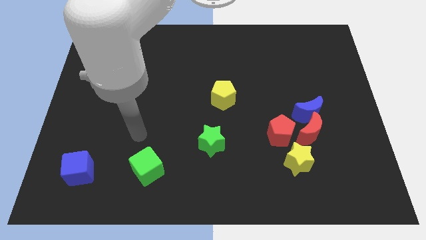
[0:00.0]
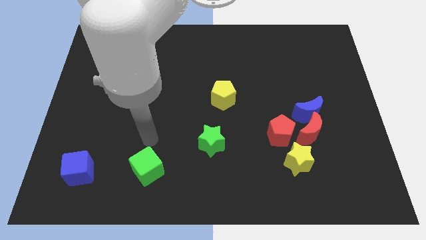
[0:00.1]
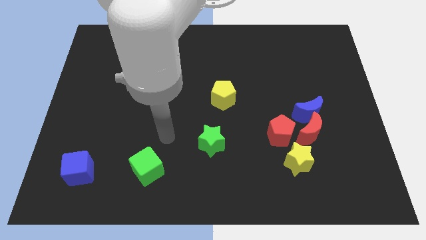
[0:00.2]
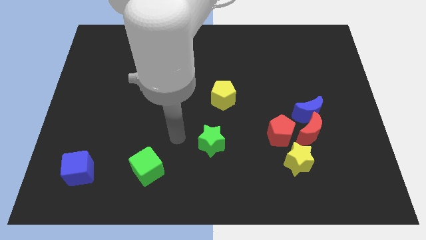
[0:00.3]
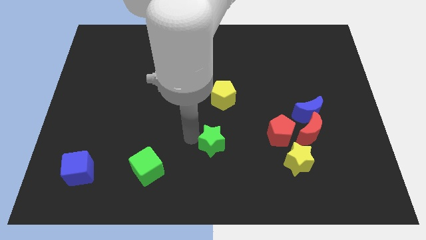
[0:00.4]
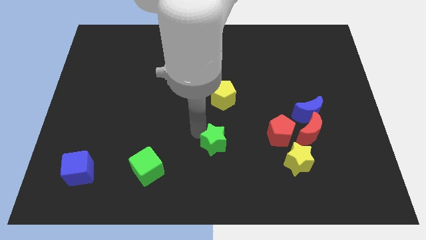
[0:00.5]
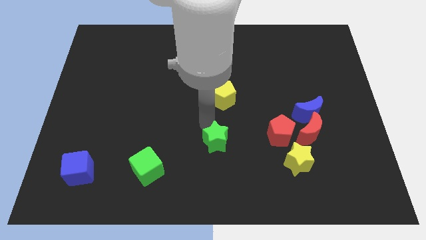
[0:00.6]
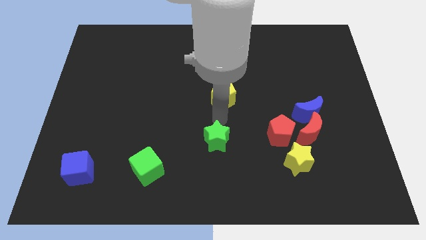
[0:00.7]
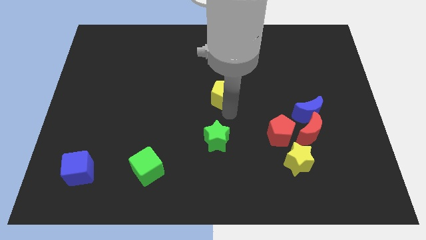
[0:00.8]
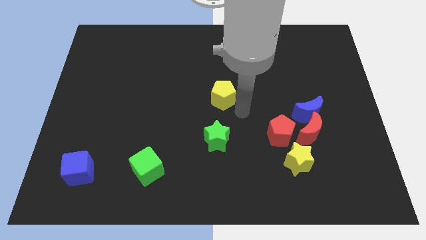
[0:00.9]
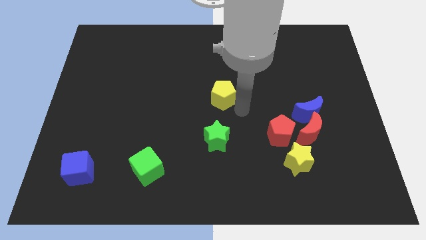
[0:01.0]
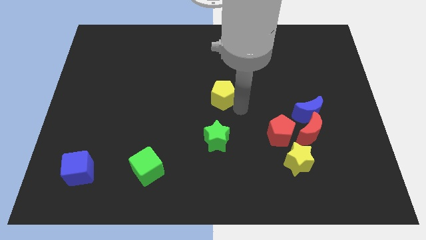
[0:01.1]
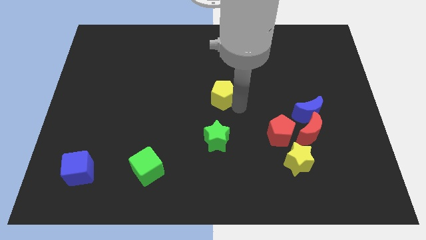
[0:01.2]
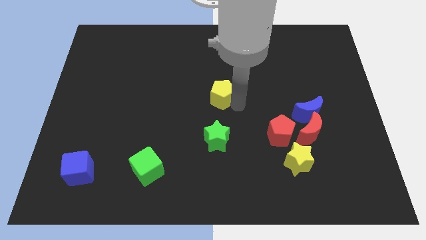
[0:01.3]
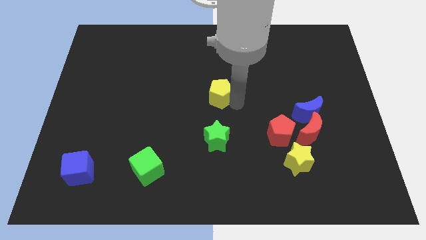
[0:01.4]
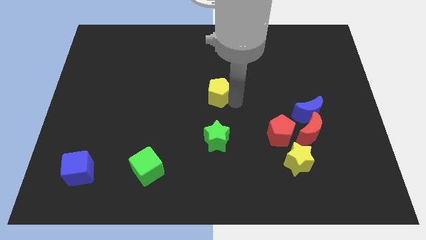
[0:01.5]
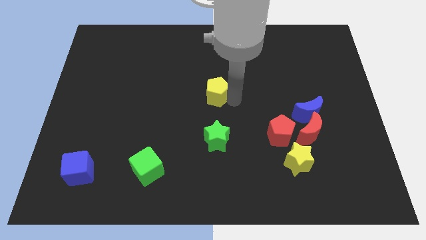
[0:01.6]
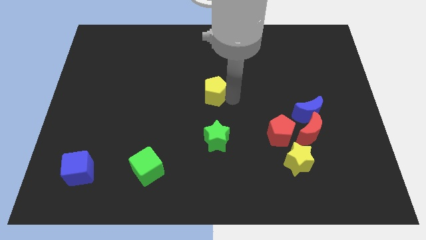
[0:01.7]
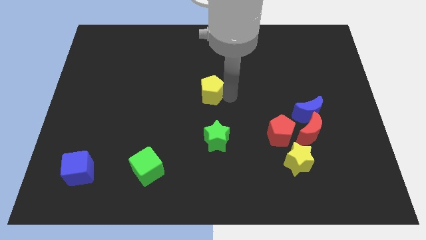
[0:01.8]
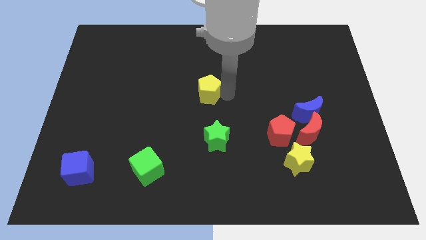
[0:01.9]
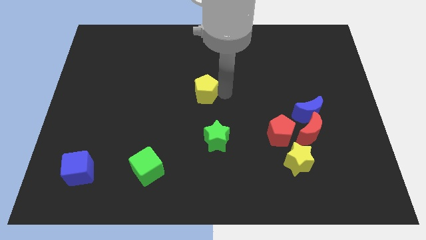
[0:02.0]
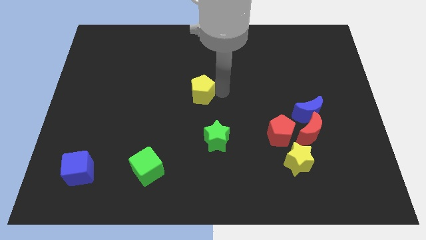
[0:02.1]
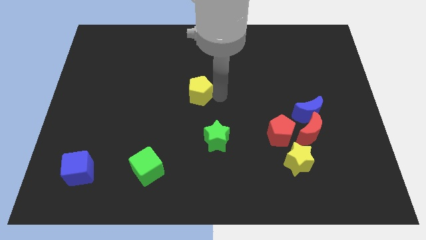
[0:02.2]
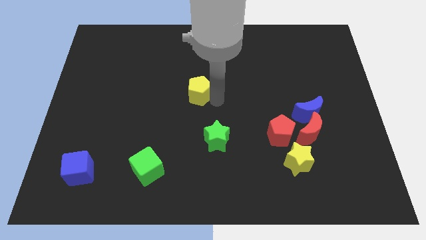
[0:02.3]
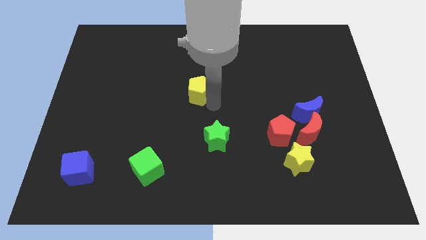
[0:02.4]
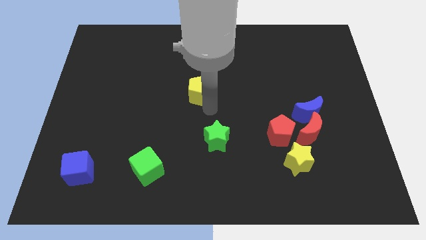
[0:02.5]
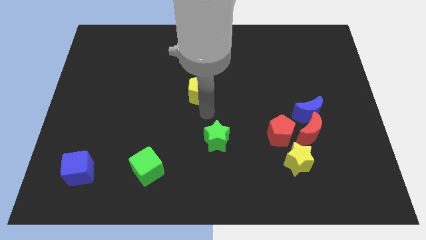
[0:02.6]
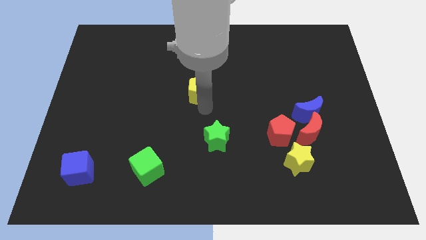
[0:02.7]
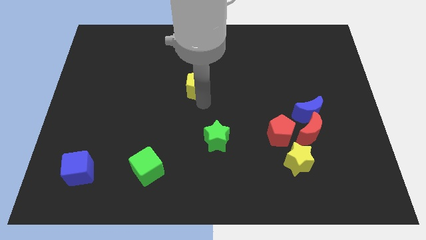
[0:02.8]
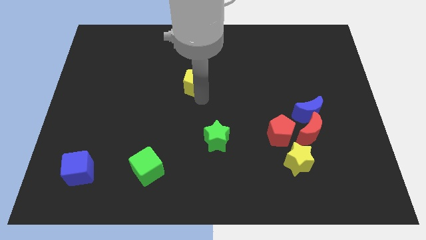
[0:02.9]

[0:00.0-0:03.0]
slide the yellow pentagon up and to the left diagonally a little

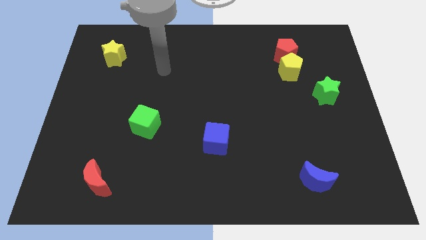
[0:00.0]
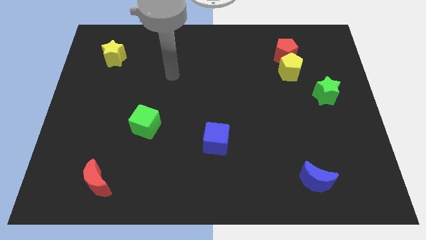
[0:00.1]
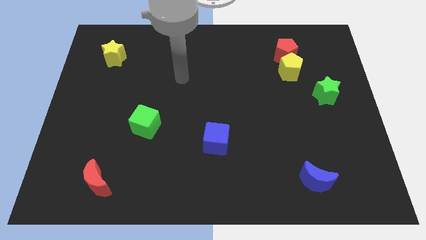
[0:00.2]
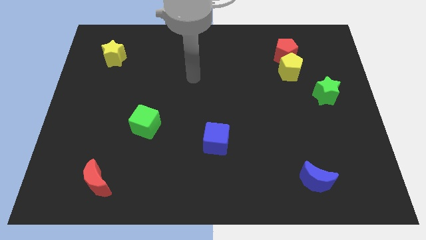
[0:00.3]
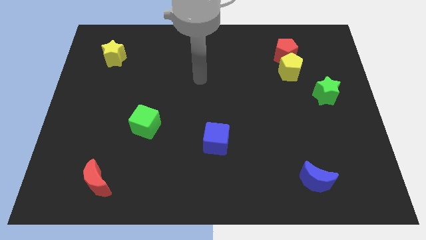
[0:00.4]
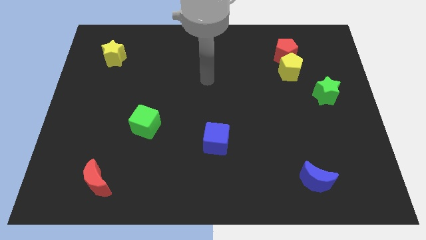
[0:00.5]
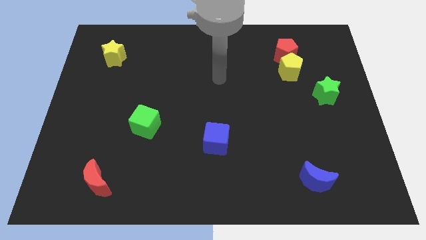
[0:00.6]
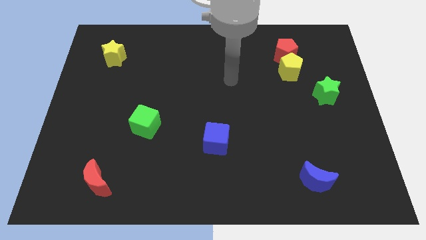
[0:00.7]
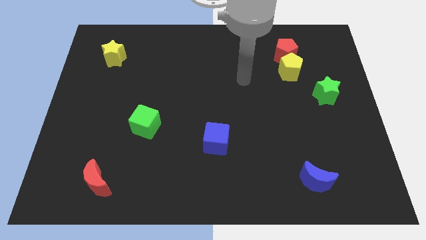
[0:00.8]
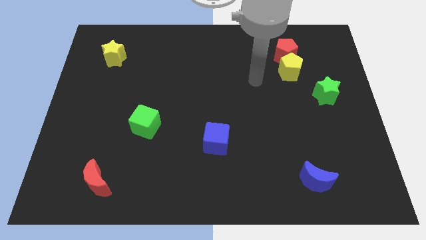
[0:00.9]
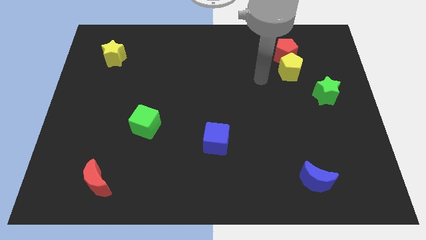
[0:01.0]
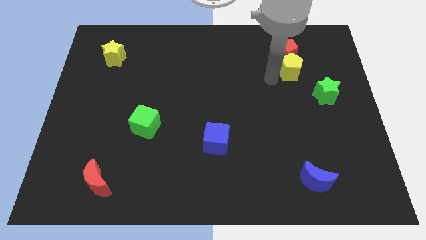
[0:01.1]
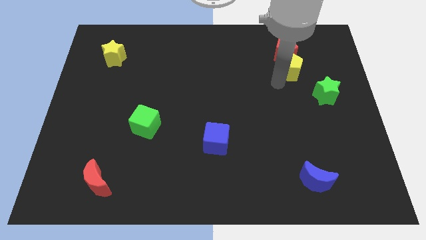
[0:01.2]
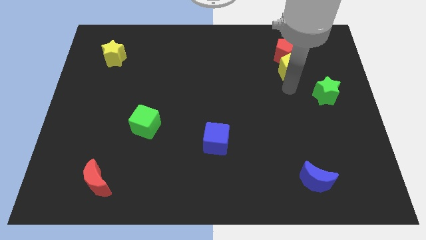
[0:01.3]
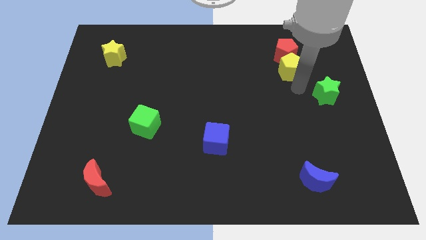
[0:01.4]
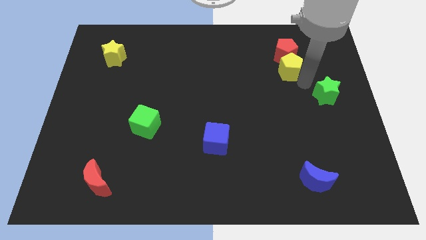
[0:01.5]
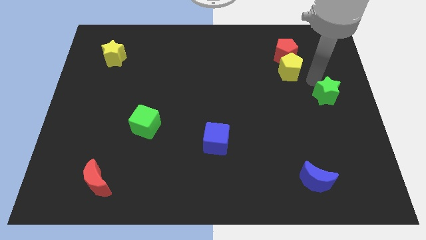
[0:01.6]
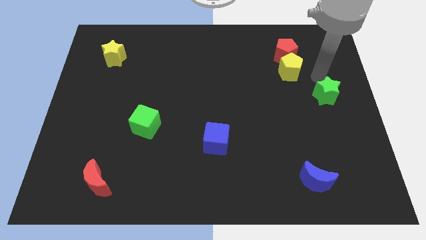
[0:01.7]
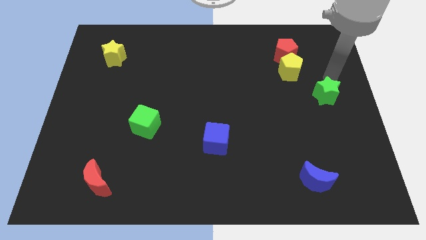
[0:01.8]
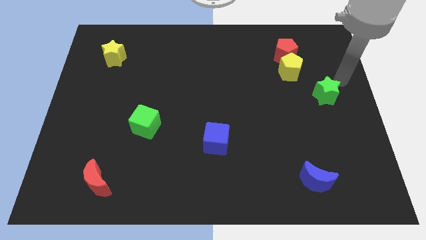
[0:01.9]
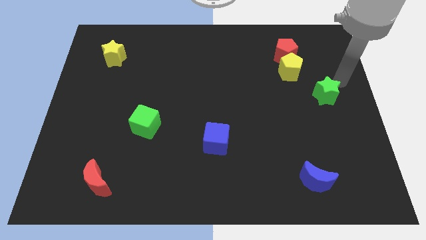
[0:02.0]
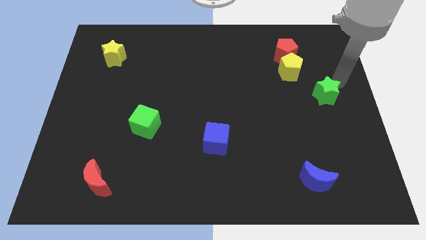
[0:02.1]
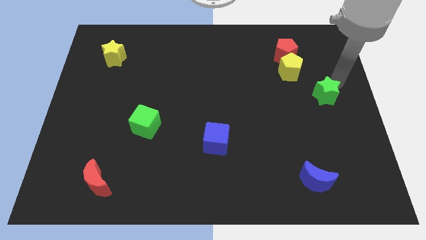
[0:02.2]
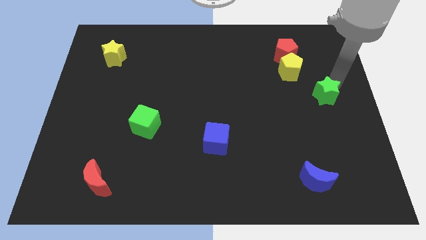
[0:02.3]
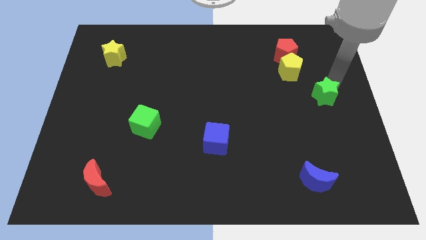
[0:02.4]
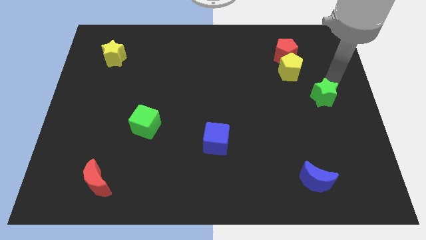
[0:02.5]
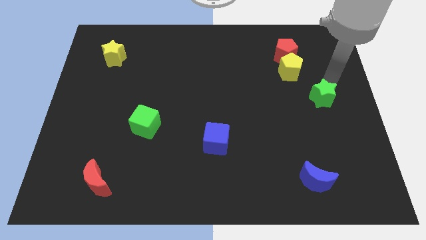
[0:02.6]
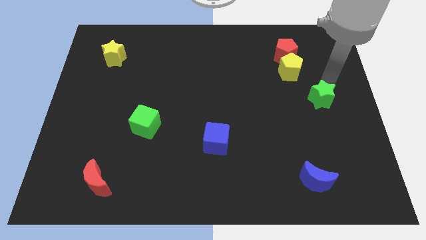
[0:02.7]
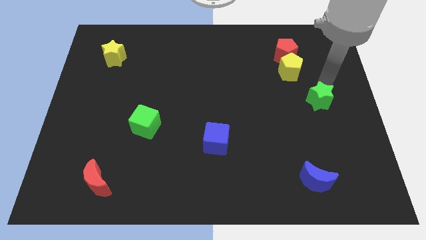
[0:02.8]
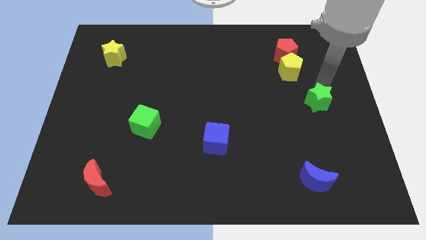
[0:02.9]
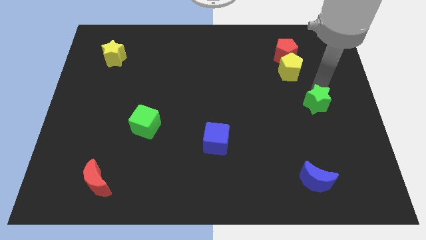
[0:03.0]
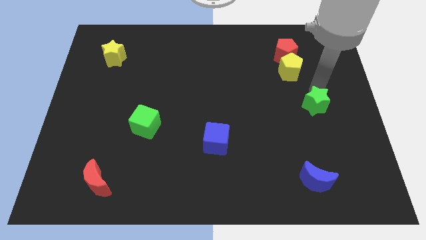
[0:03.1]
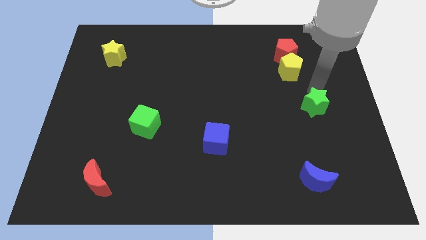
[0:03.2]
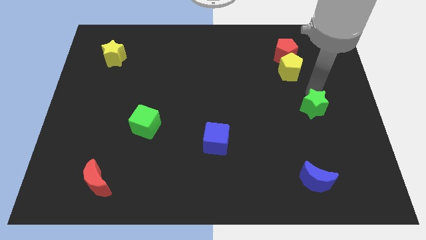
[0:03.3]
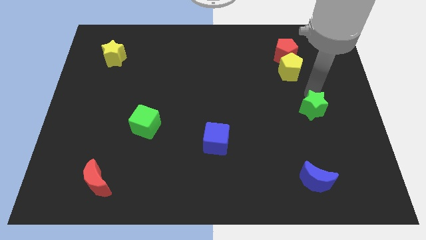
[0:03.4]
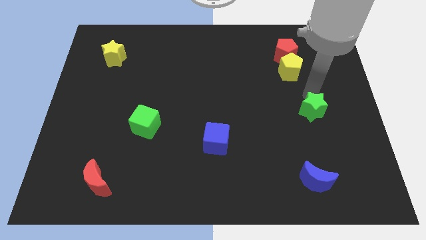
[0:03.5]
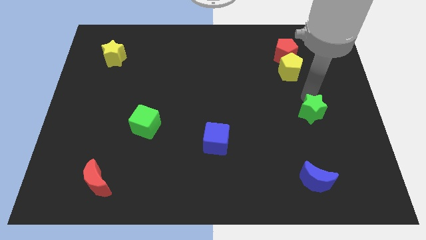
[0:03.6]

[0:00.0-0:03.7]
move the green star diagonally down and to the left a bit

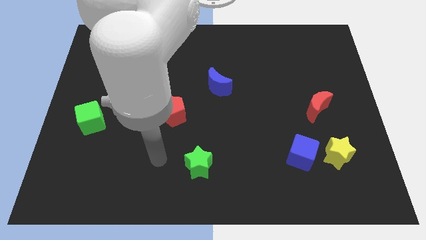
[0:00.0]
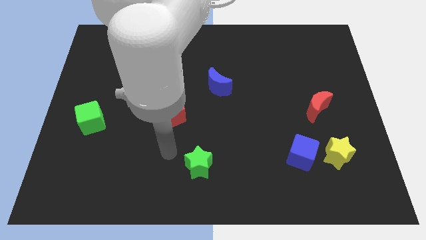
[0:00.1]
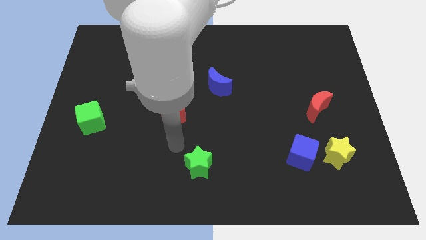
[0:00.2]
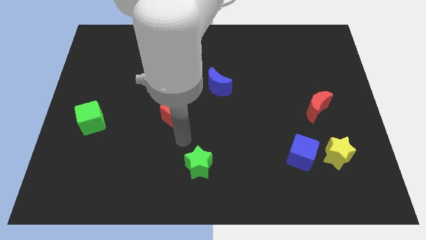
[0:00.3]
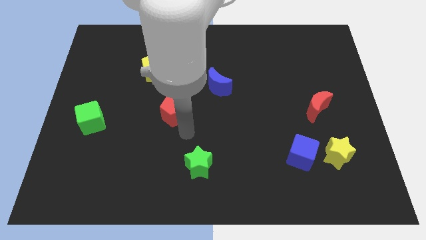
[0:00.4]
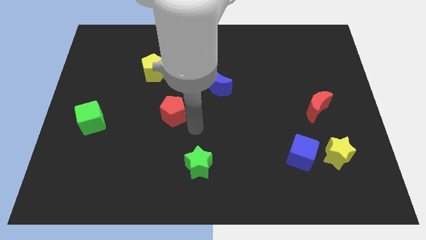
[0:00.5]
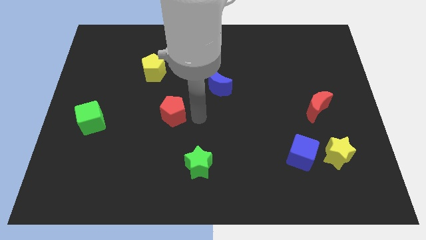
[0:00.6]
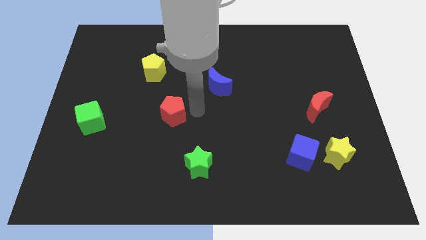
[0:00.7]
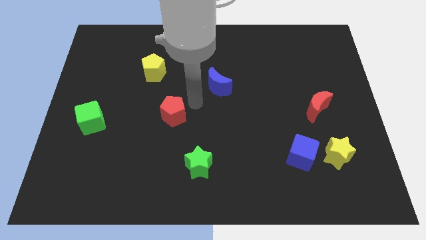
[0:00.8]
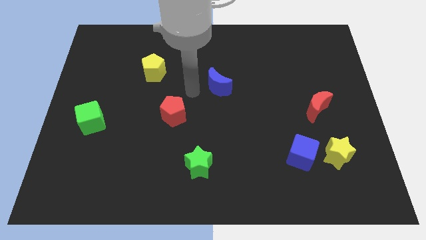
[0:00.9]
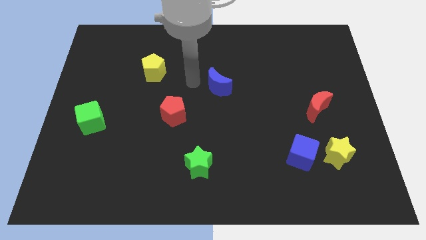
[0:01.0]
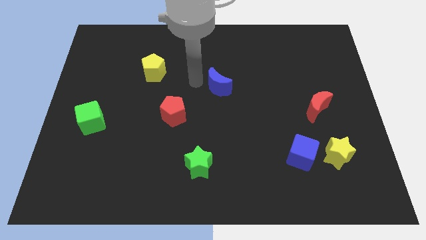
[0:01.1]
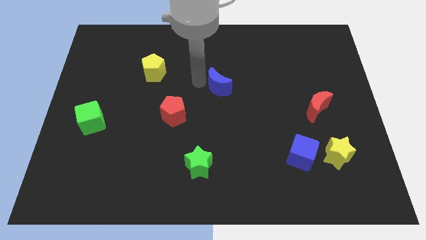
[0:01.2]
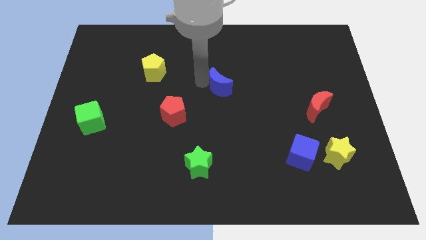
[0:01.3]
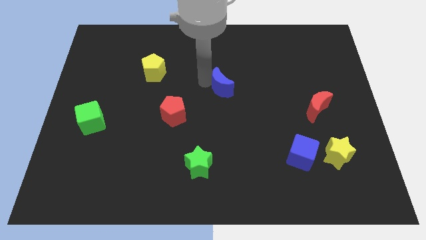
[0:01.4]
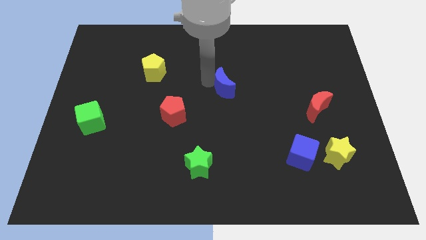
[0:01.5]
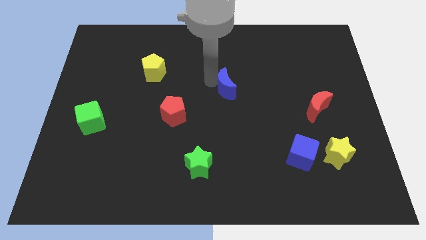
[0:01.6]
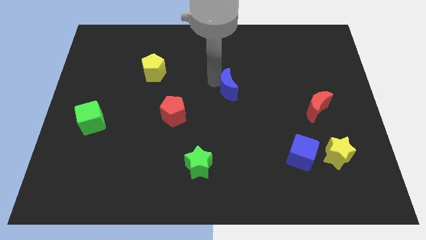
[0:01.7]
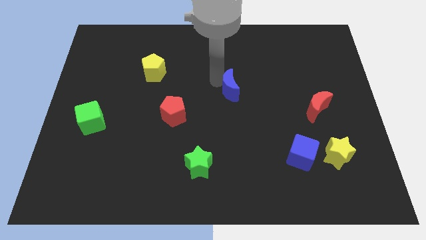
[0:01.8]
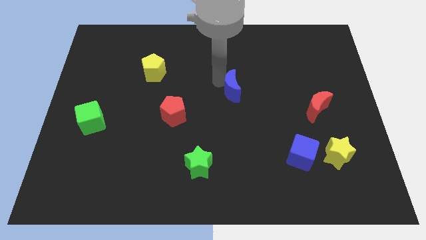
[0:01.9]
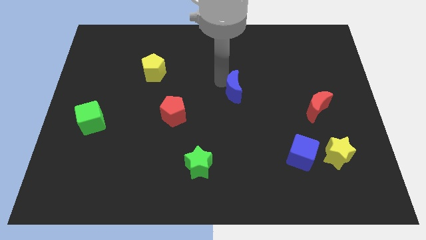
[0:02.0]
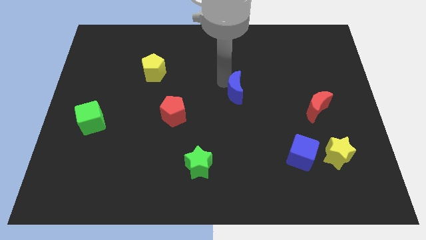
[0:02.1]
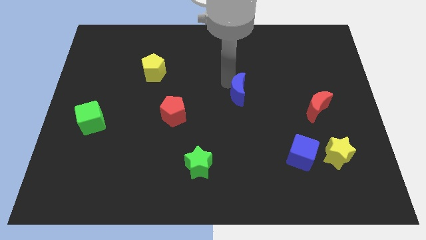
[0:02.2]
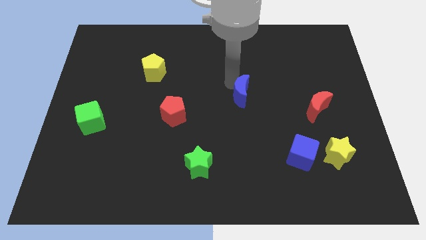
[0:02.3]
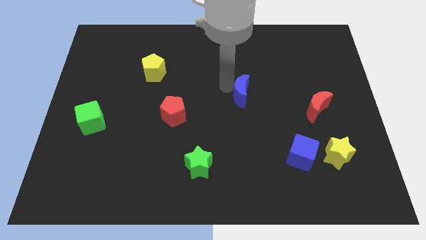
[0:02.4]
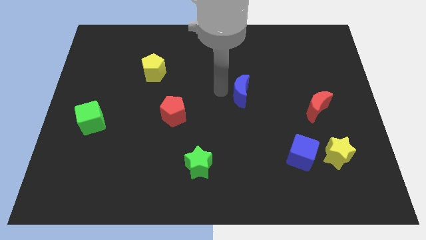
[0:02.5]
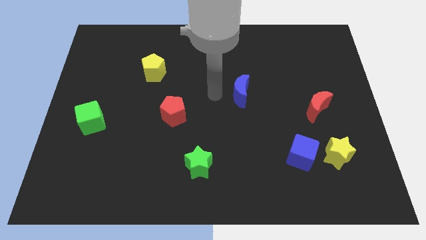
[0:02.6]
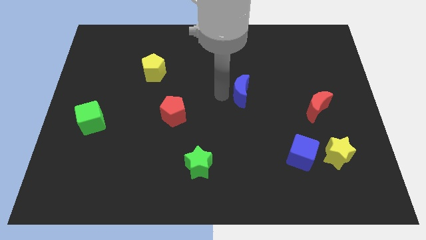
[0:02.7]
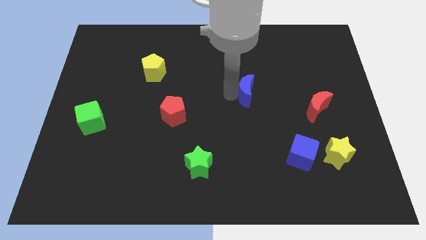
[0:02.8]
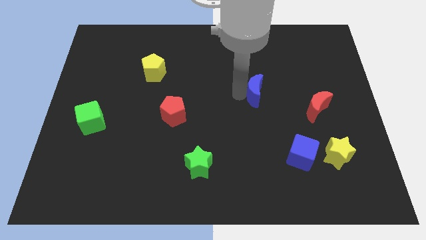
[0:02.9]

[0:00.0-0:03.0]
move the blue moon a little bit to the right
